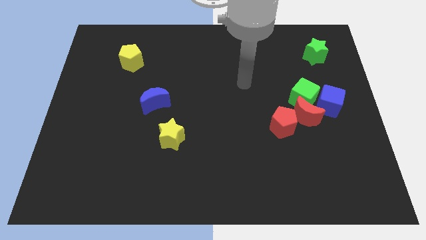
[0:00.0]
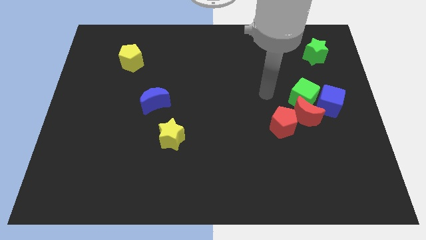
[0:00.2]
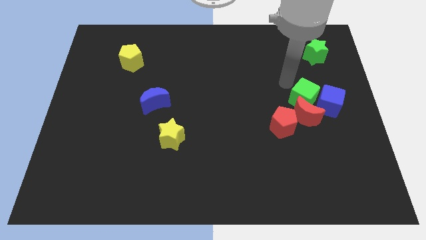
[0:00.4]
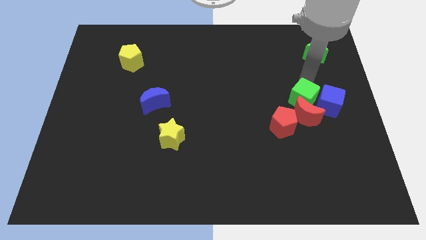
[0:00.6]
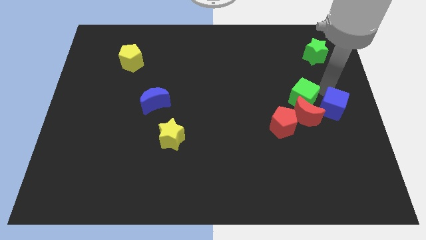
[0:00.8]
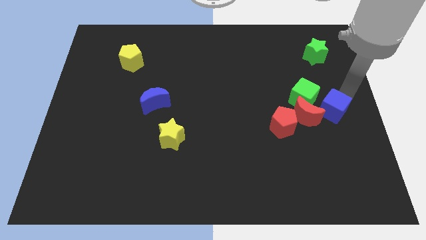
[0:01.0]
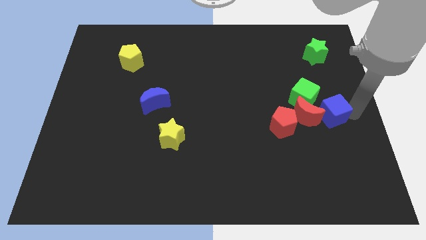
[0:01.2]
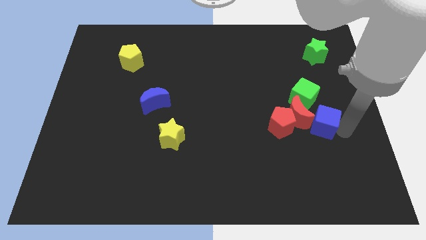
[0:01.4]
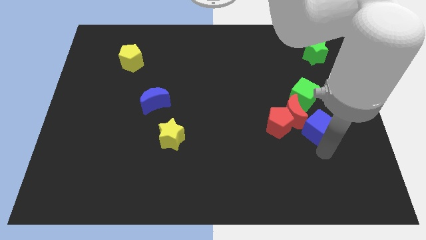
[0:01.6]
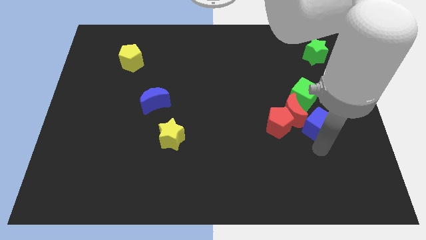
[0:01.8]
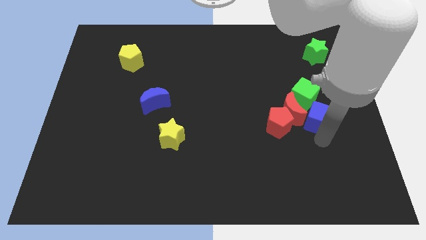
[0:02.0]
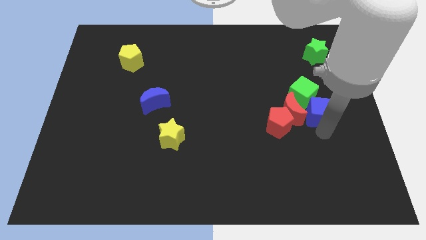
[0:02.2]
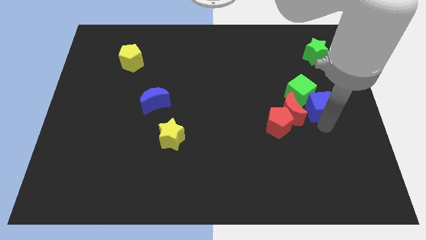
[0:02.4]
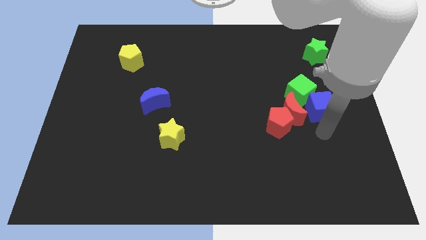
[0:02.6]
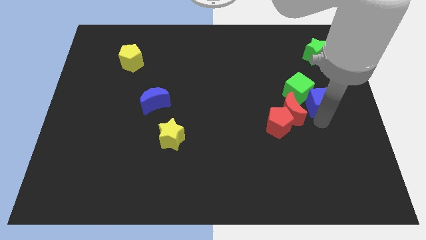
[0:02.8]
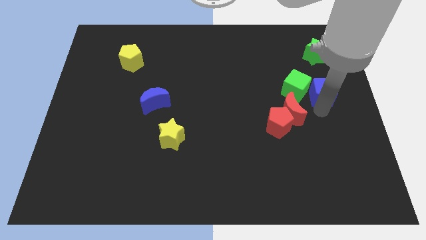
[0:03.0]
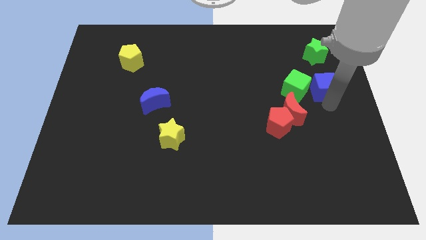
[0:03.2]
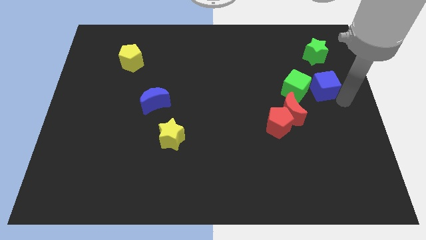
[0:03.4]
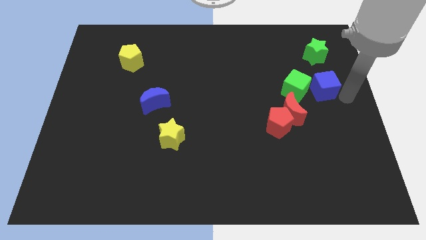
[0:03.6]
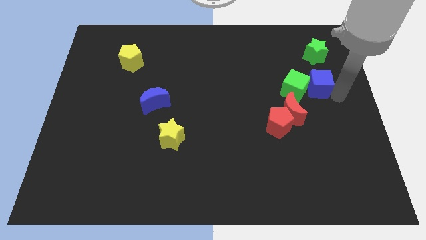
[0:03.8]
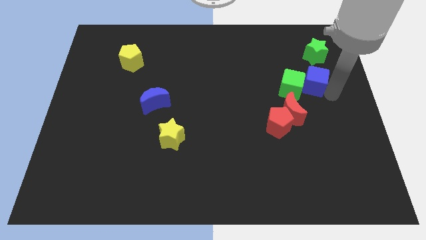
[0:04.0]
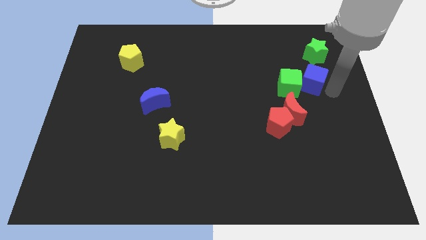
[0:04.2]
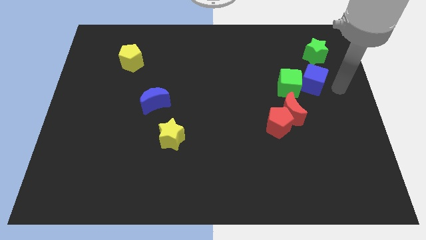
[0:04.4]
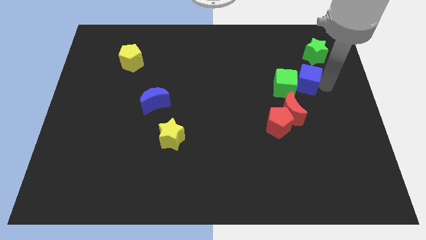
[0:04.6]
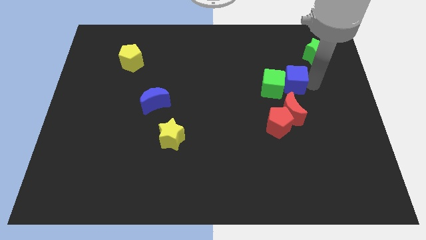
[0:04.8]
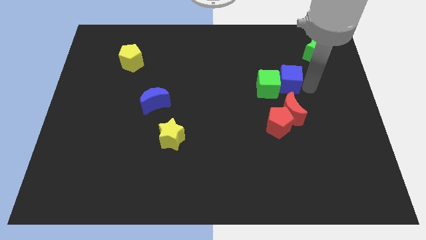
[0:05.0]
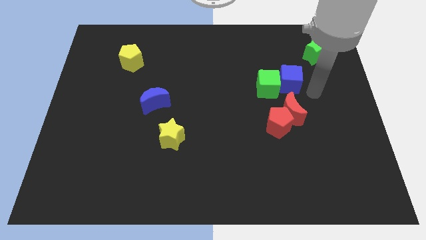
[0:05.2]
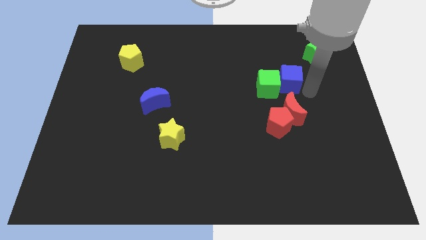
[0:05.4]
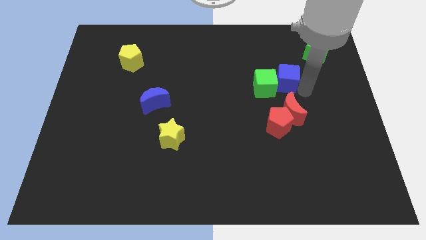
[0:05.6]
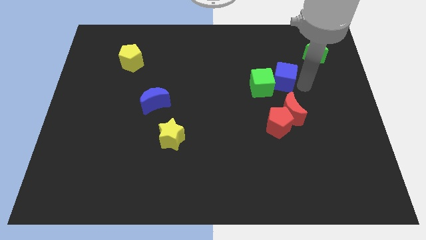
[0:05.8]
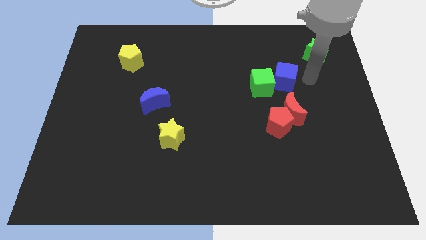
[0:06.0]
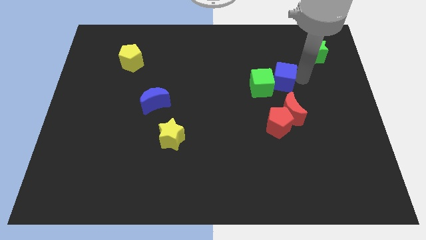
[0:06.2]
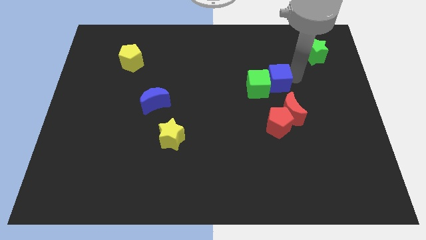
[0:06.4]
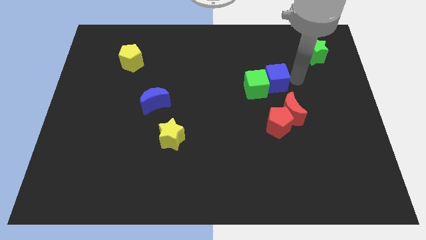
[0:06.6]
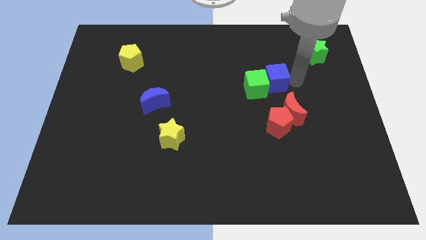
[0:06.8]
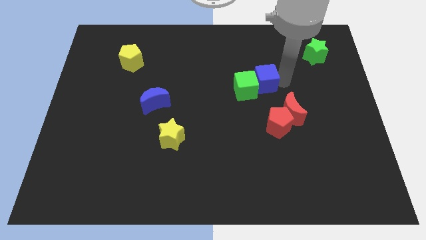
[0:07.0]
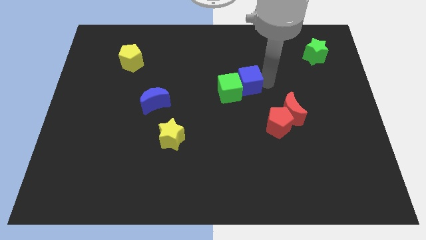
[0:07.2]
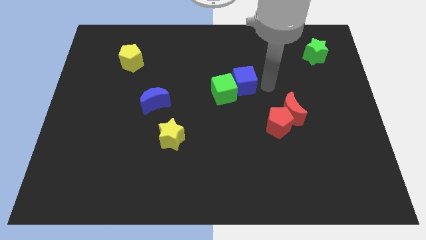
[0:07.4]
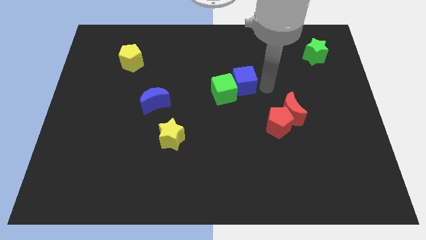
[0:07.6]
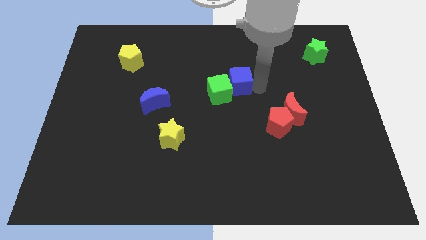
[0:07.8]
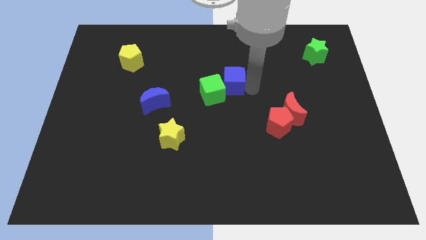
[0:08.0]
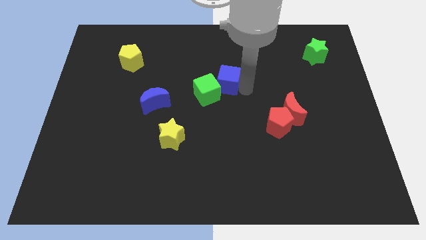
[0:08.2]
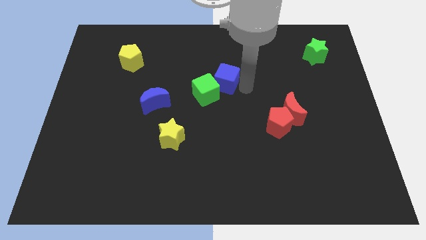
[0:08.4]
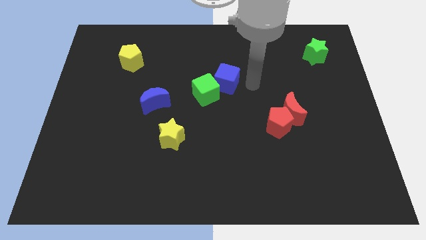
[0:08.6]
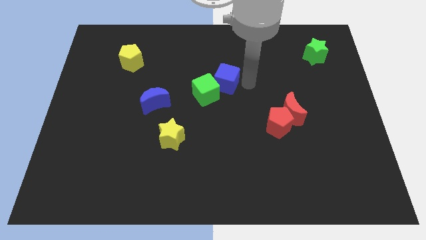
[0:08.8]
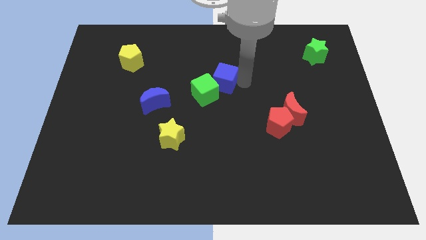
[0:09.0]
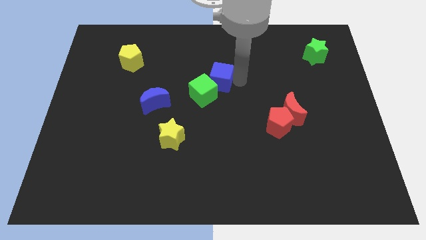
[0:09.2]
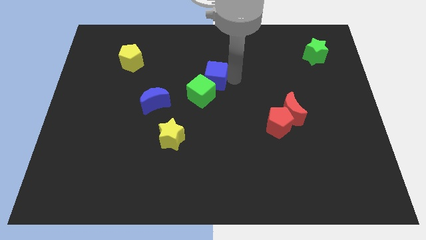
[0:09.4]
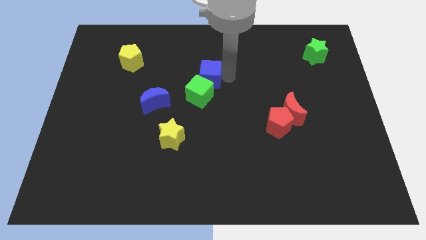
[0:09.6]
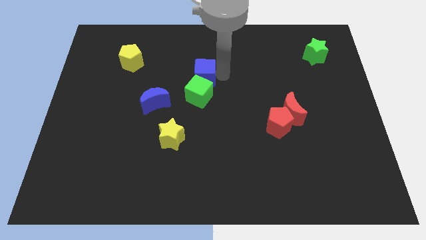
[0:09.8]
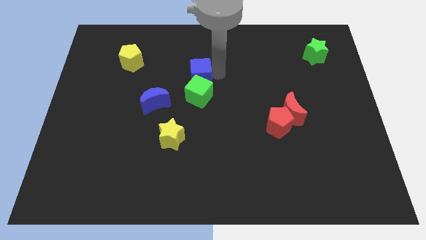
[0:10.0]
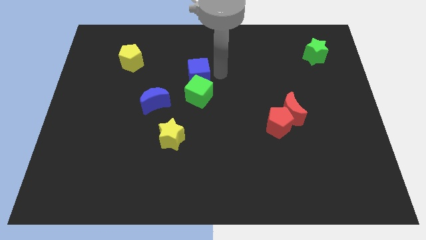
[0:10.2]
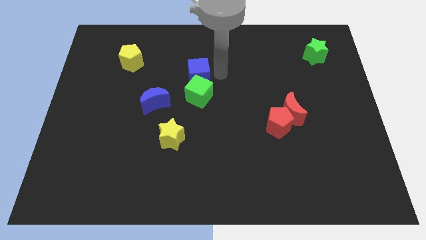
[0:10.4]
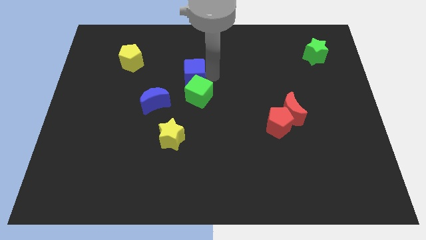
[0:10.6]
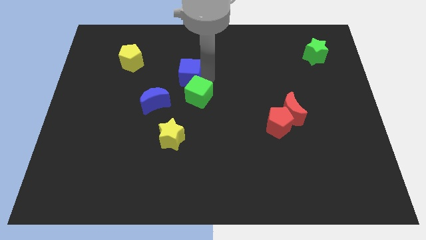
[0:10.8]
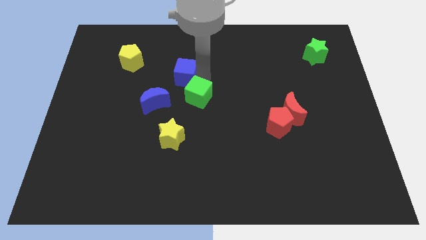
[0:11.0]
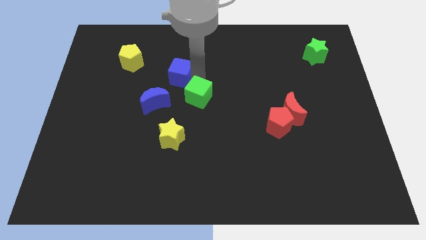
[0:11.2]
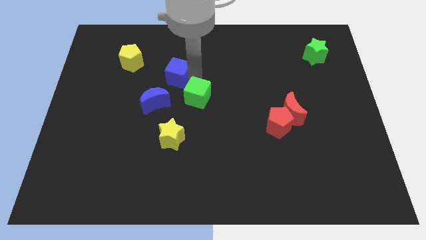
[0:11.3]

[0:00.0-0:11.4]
put the blue cube to the top side of the blue moon

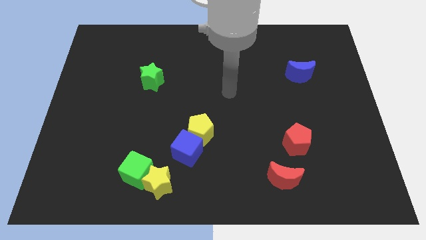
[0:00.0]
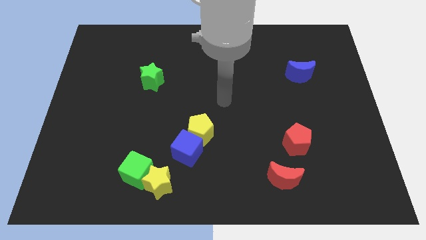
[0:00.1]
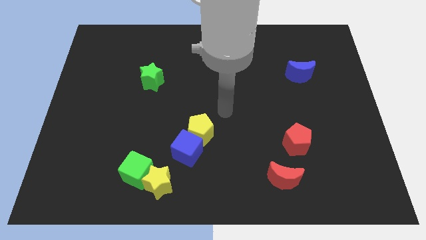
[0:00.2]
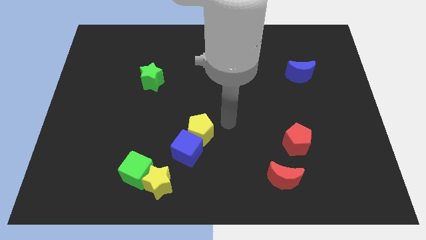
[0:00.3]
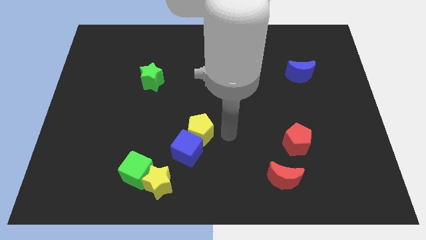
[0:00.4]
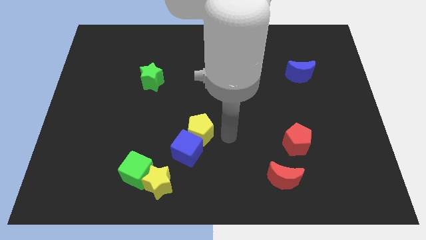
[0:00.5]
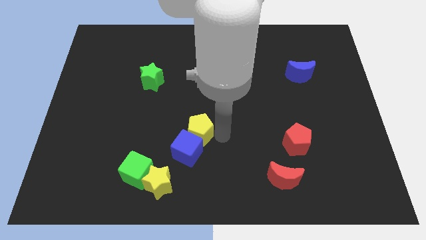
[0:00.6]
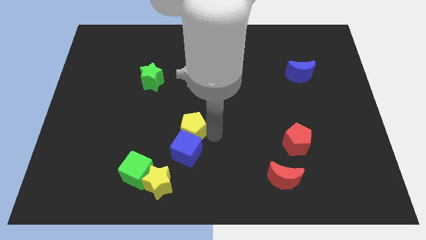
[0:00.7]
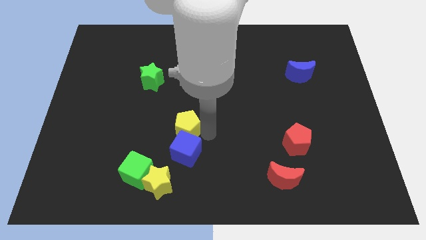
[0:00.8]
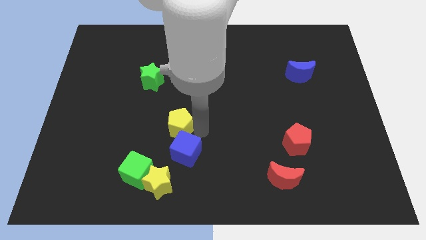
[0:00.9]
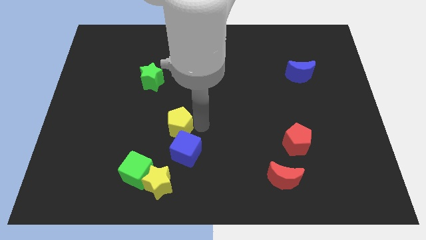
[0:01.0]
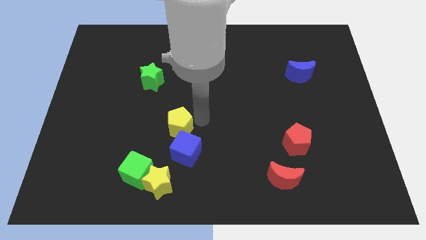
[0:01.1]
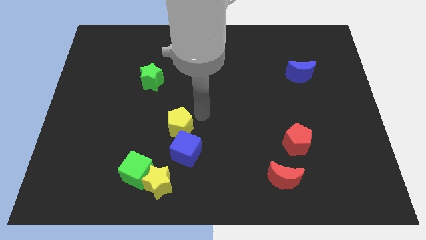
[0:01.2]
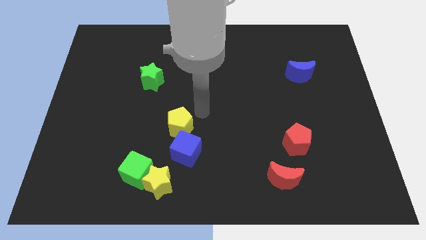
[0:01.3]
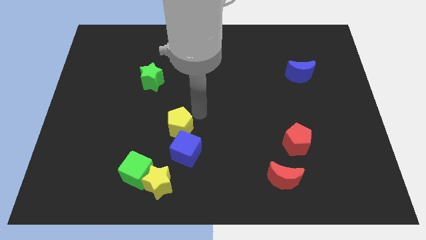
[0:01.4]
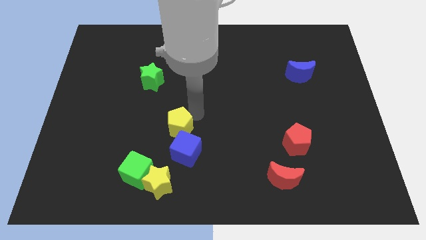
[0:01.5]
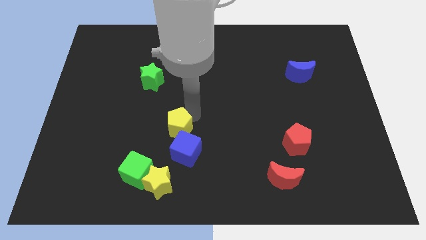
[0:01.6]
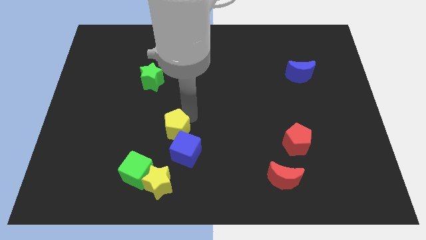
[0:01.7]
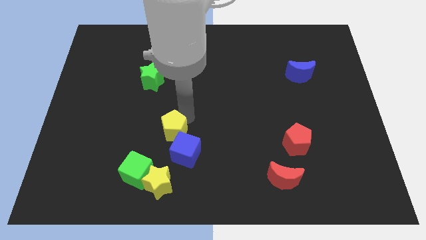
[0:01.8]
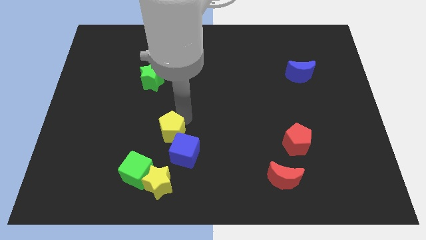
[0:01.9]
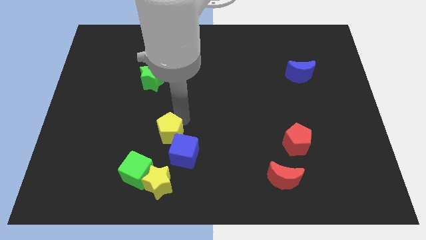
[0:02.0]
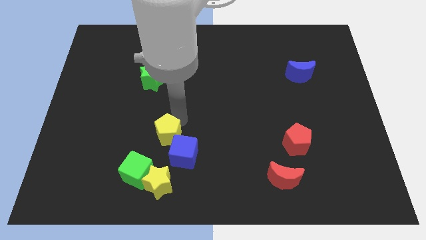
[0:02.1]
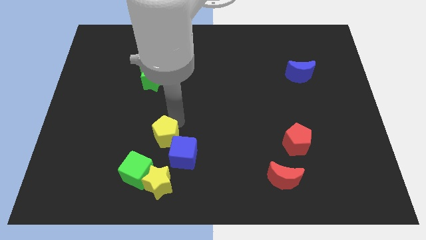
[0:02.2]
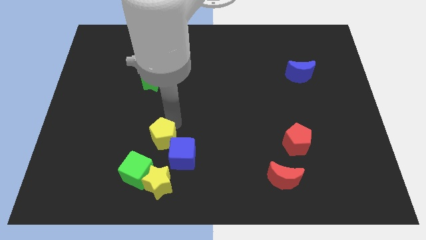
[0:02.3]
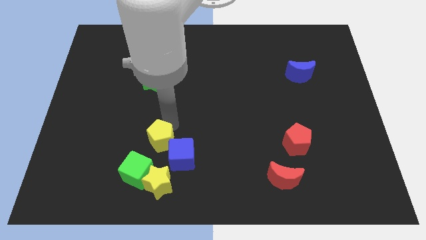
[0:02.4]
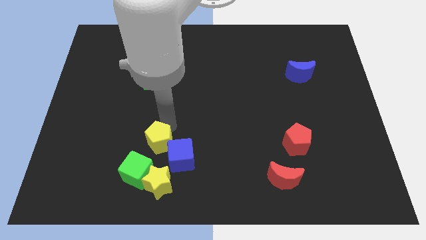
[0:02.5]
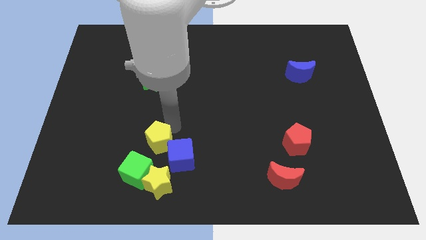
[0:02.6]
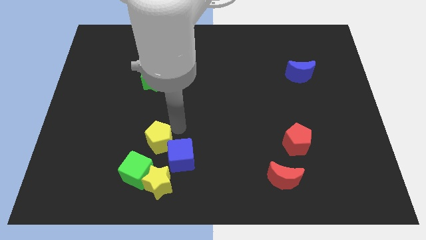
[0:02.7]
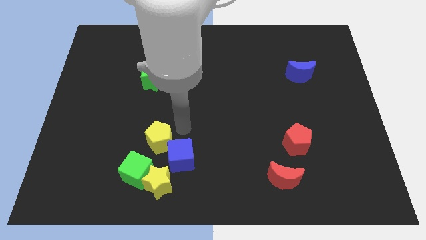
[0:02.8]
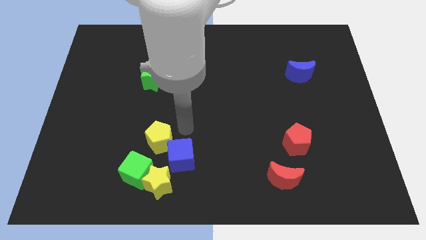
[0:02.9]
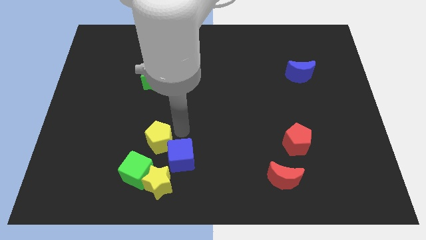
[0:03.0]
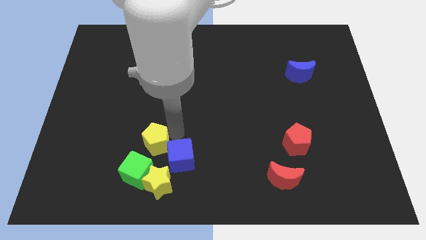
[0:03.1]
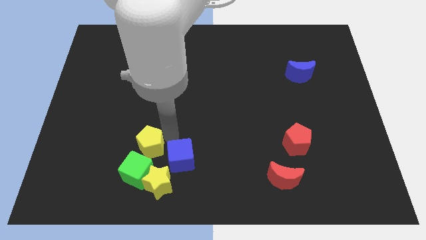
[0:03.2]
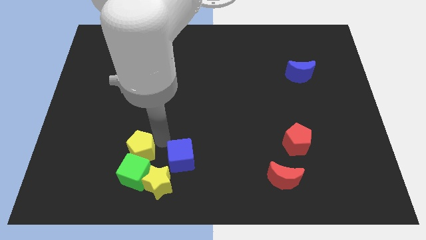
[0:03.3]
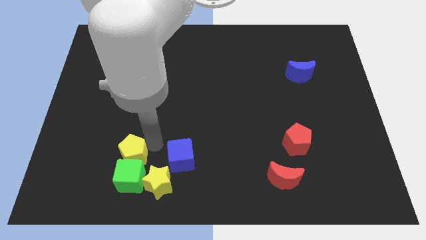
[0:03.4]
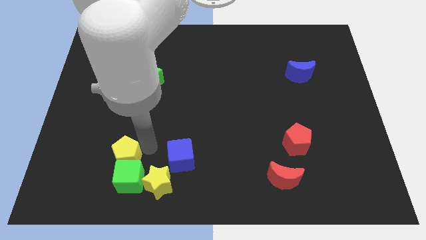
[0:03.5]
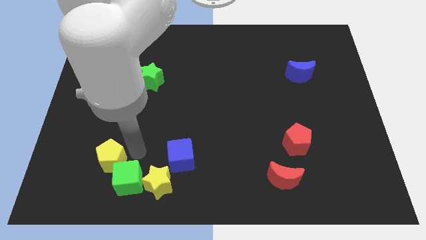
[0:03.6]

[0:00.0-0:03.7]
push the yellow pentagon to the left of the green cube
